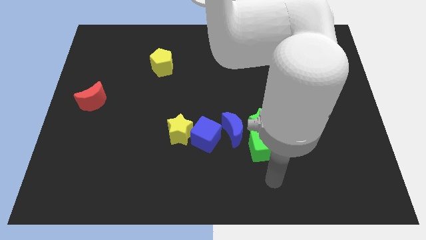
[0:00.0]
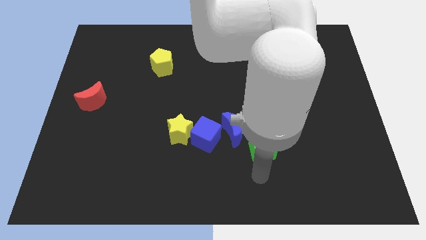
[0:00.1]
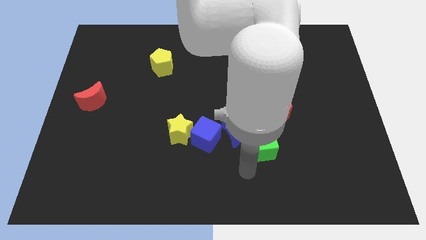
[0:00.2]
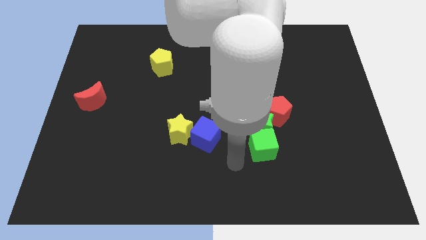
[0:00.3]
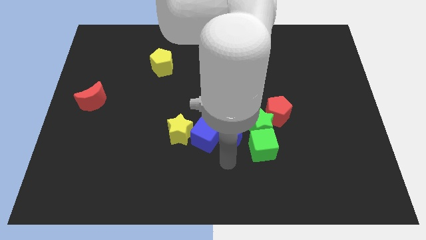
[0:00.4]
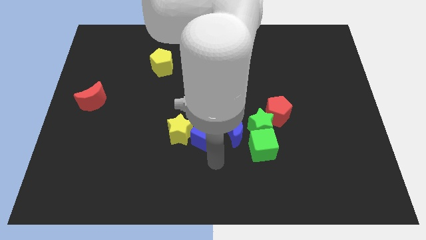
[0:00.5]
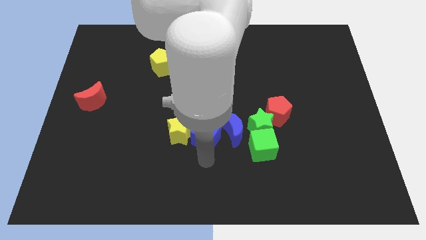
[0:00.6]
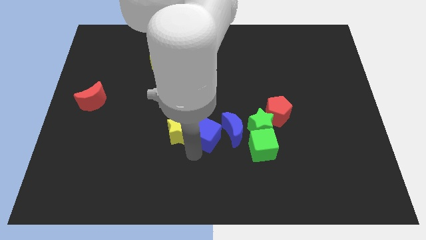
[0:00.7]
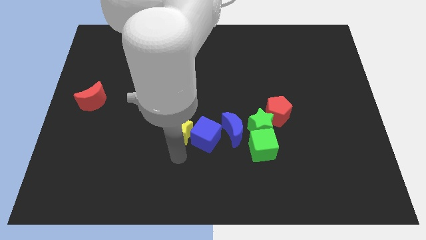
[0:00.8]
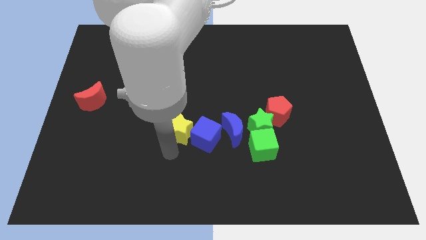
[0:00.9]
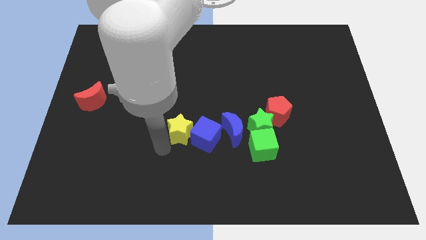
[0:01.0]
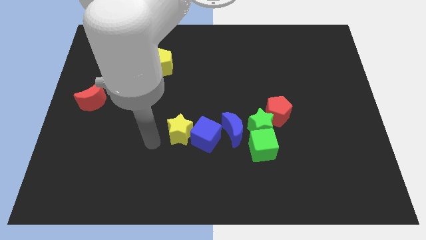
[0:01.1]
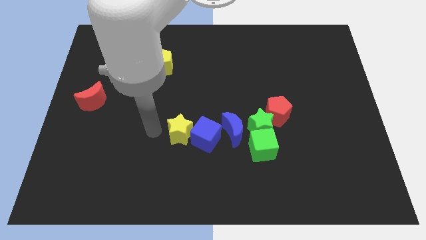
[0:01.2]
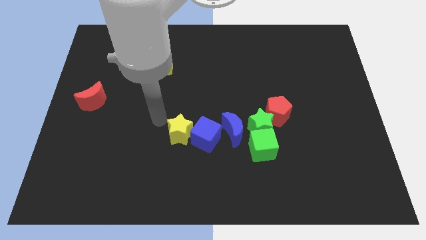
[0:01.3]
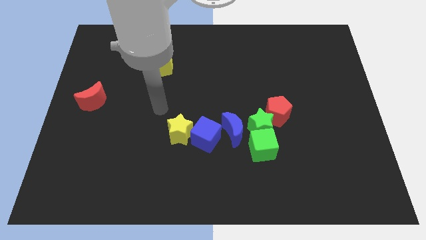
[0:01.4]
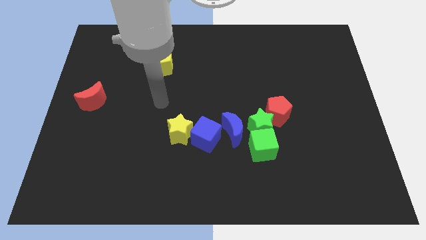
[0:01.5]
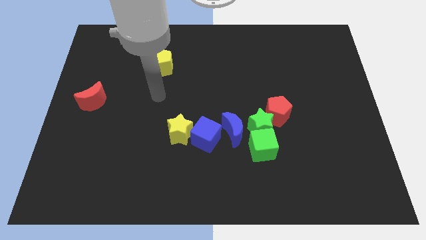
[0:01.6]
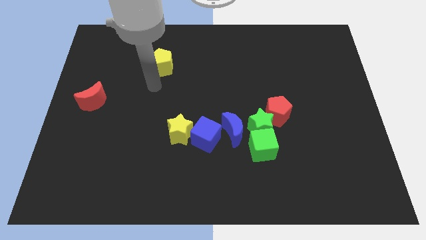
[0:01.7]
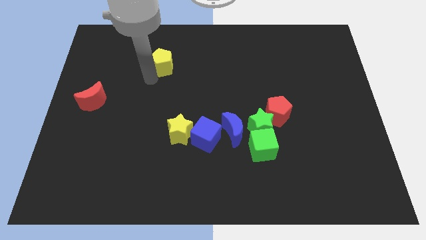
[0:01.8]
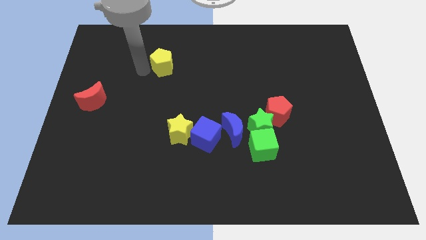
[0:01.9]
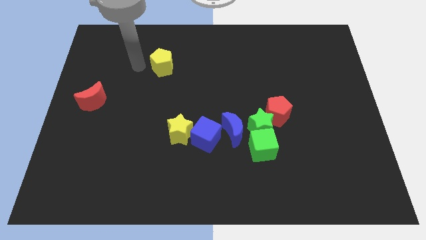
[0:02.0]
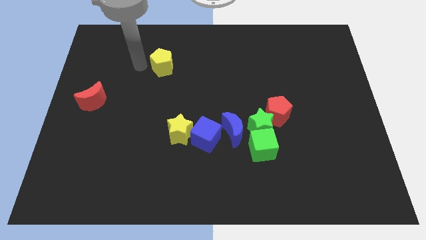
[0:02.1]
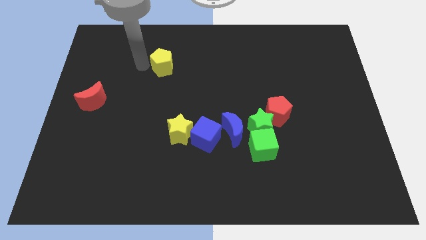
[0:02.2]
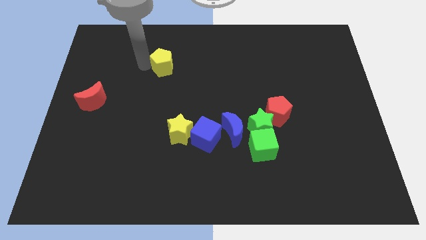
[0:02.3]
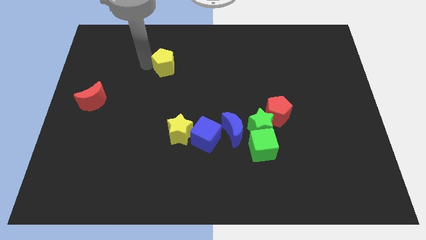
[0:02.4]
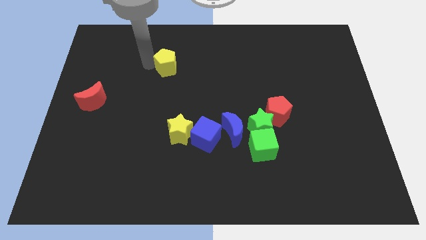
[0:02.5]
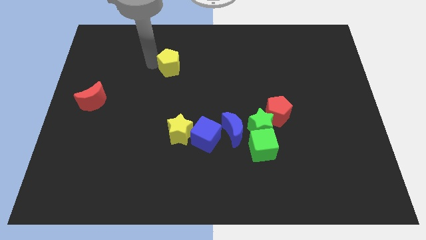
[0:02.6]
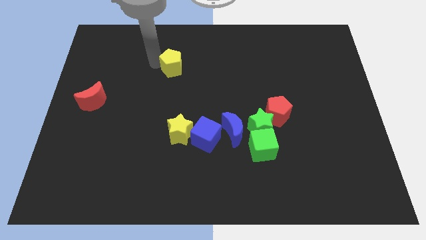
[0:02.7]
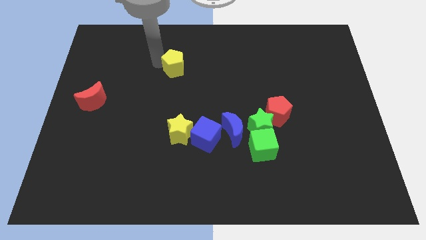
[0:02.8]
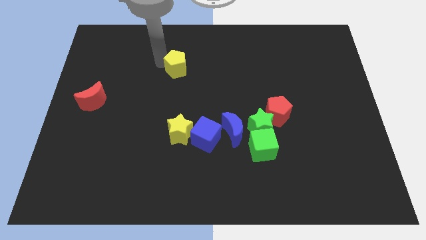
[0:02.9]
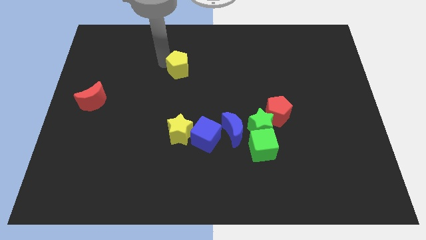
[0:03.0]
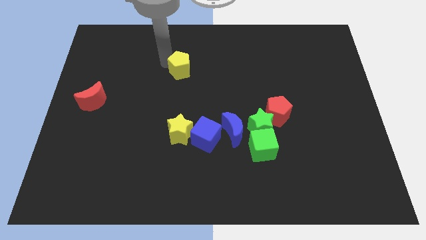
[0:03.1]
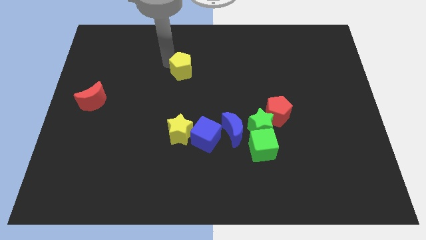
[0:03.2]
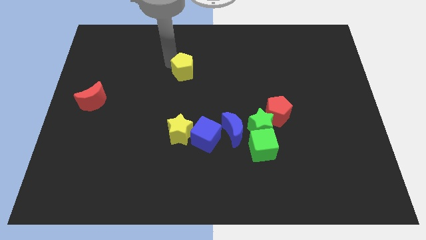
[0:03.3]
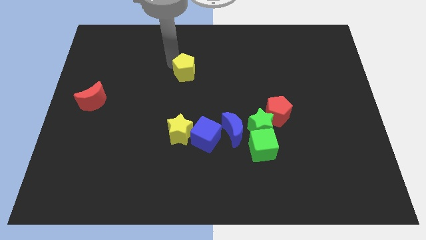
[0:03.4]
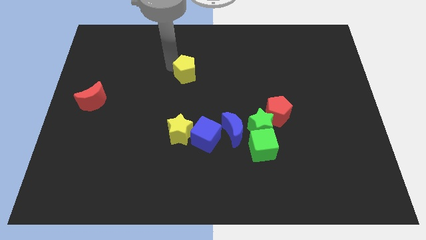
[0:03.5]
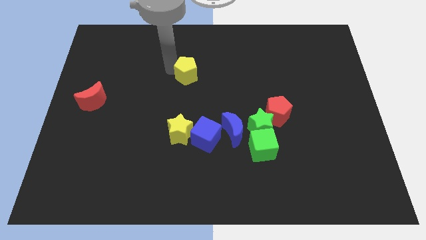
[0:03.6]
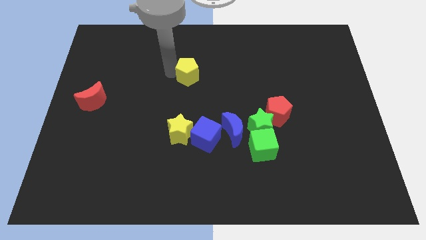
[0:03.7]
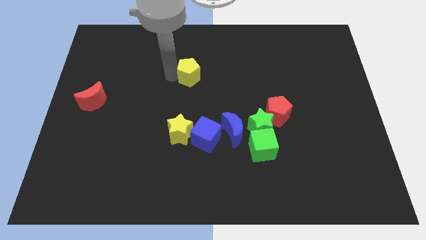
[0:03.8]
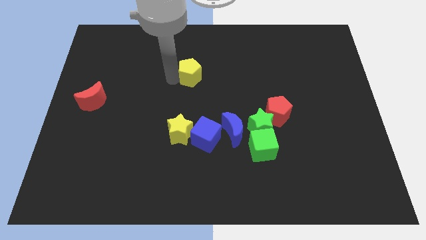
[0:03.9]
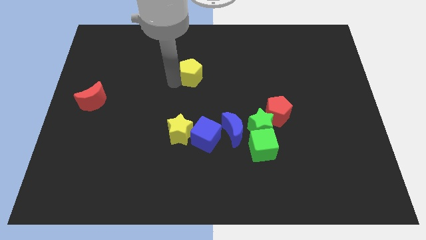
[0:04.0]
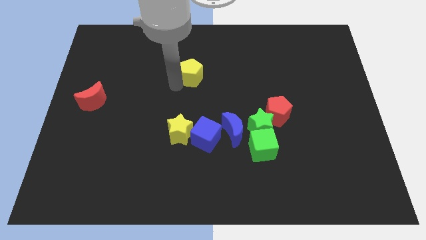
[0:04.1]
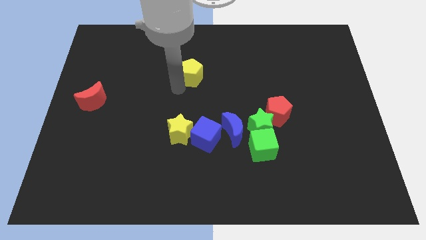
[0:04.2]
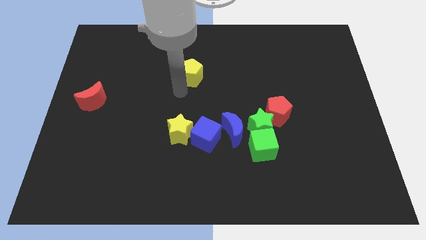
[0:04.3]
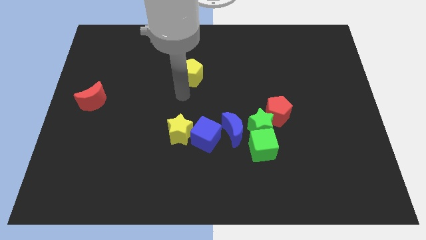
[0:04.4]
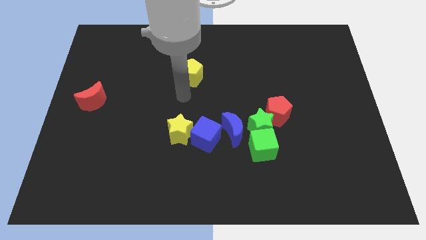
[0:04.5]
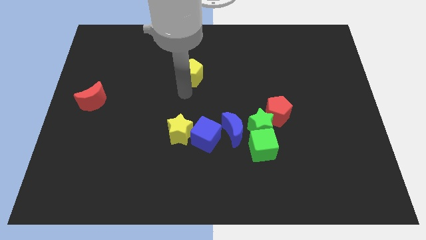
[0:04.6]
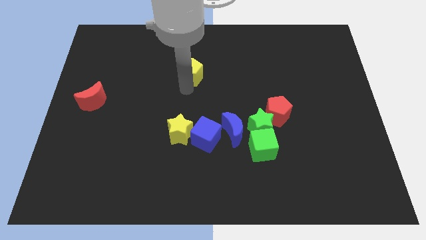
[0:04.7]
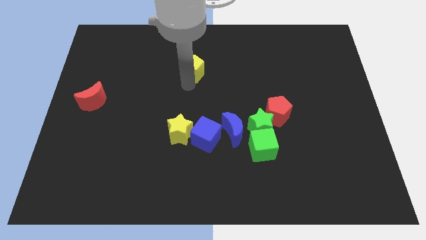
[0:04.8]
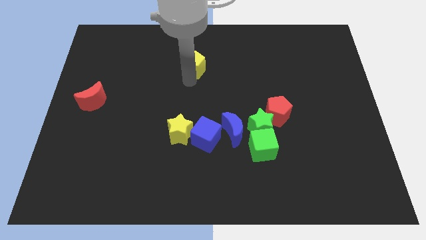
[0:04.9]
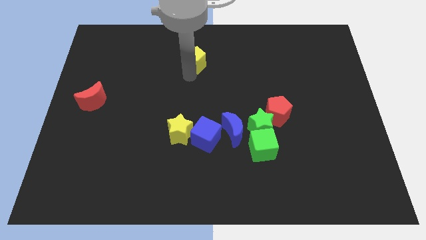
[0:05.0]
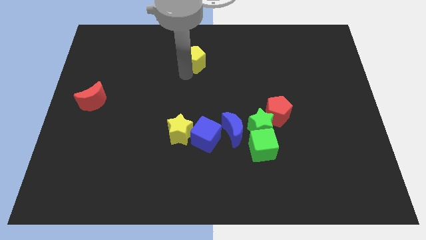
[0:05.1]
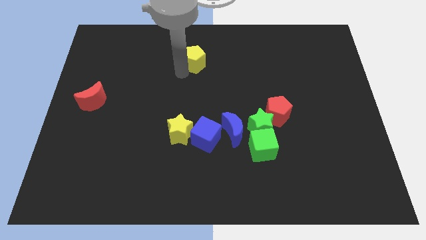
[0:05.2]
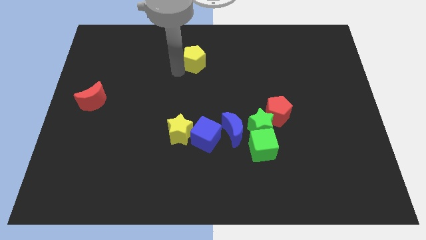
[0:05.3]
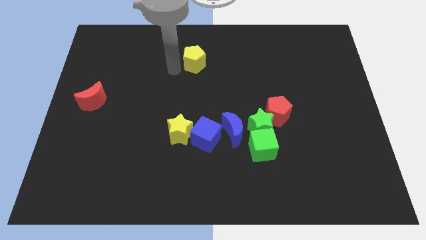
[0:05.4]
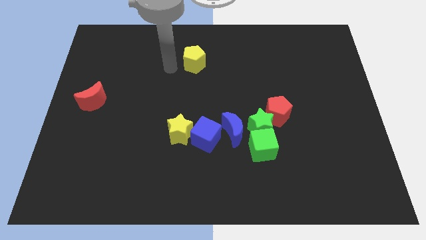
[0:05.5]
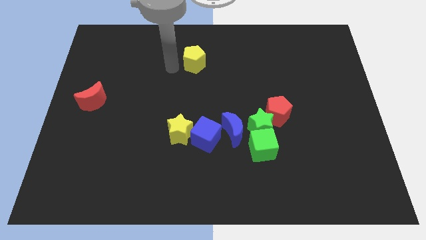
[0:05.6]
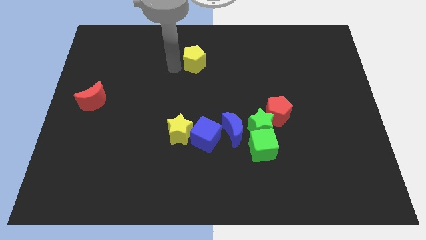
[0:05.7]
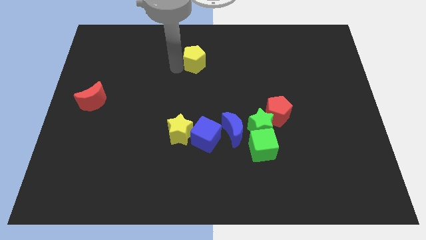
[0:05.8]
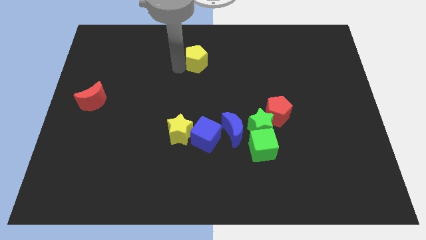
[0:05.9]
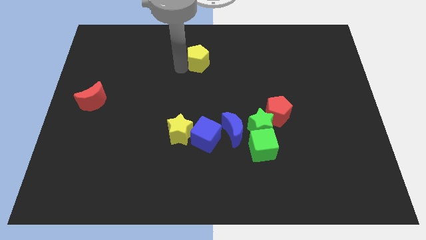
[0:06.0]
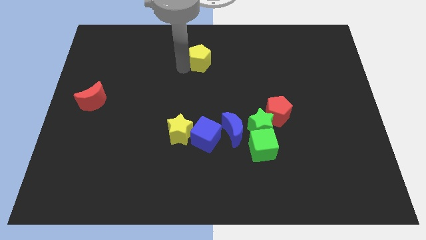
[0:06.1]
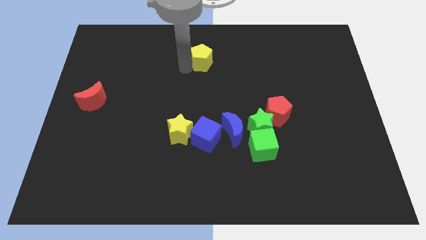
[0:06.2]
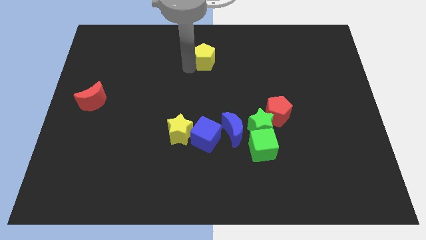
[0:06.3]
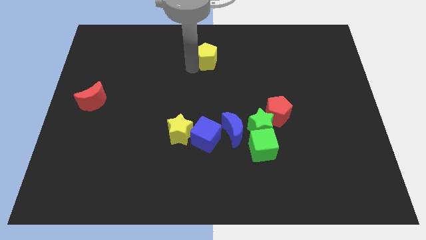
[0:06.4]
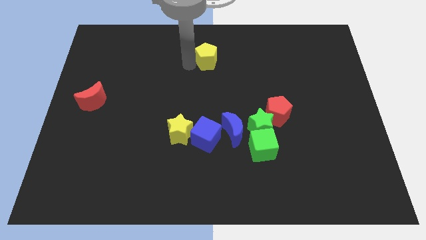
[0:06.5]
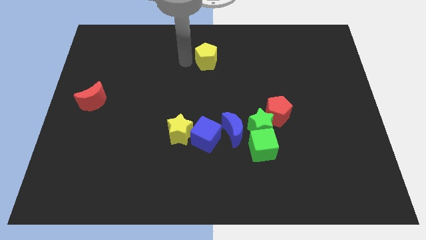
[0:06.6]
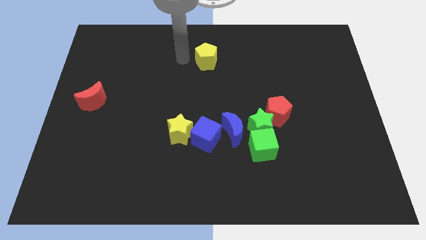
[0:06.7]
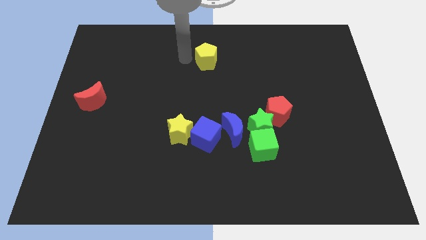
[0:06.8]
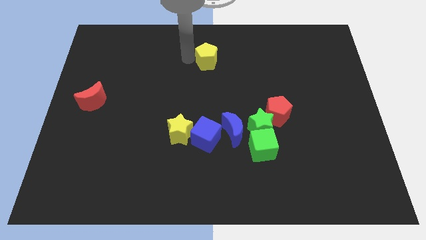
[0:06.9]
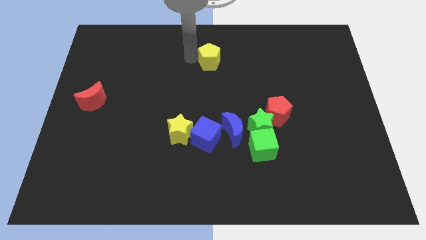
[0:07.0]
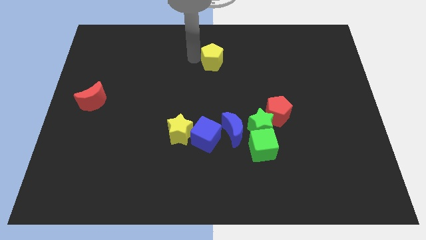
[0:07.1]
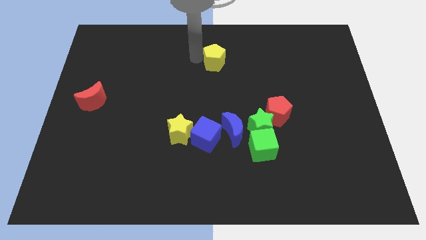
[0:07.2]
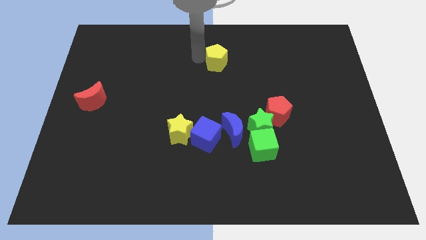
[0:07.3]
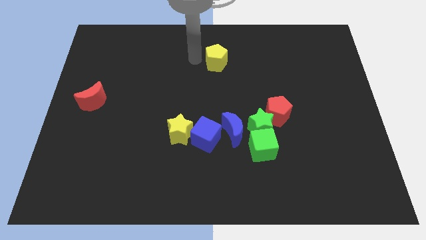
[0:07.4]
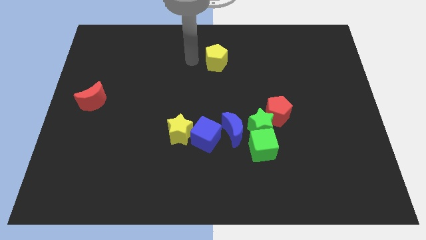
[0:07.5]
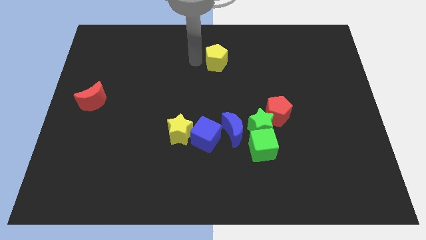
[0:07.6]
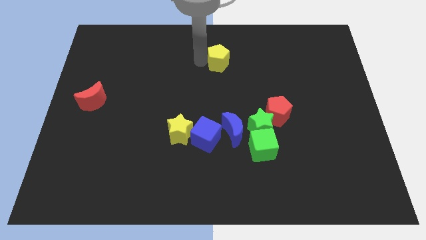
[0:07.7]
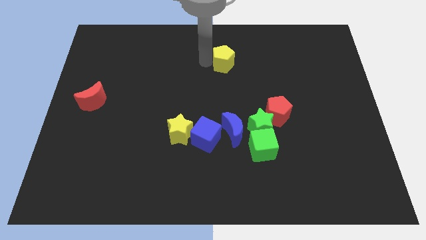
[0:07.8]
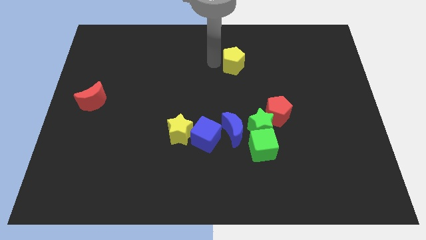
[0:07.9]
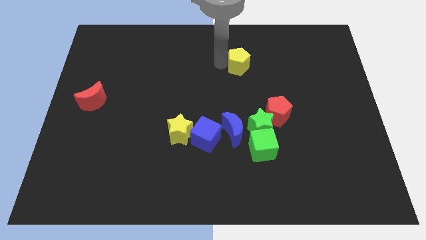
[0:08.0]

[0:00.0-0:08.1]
move the yellow pentagon to the right
